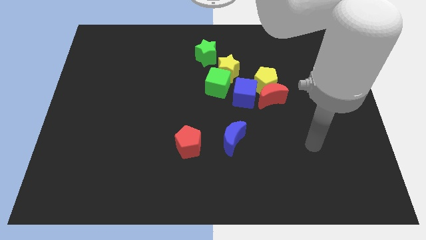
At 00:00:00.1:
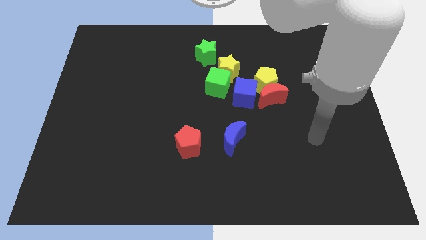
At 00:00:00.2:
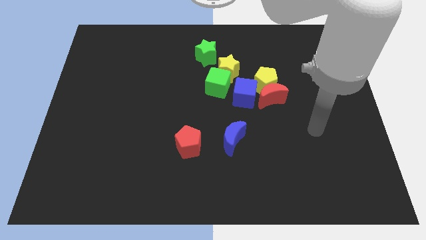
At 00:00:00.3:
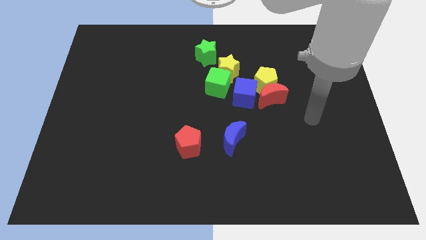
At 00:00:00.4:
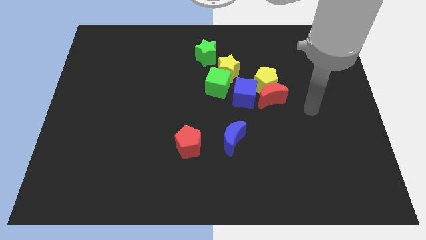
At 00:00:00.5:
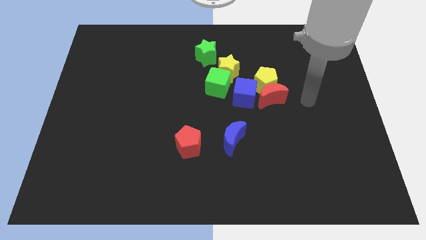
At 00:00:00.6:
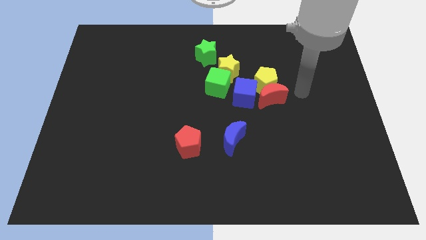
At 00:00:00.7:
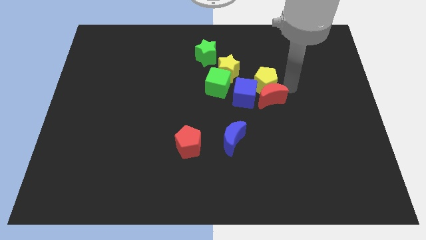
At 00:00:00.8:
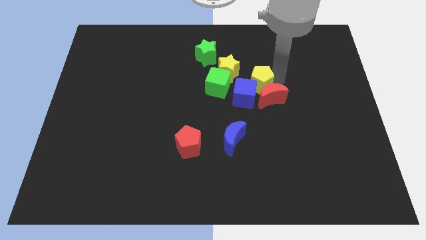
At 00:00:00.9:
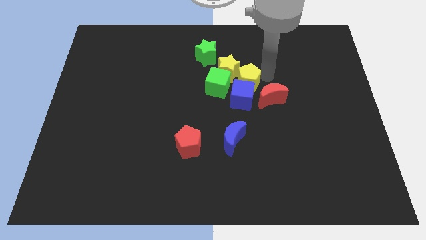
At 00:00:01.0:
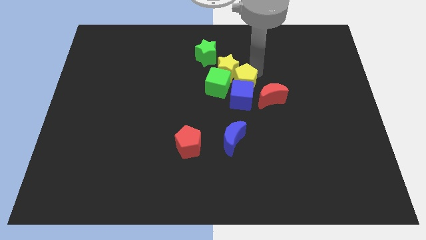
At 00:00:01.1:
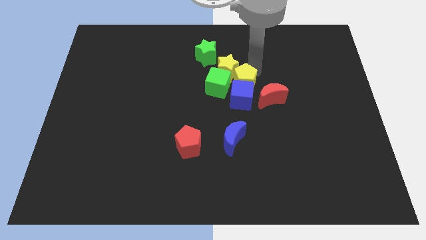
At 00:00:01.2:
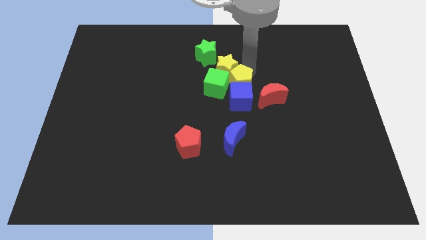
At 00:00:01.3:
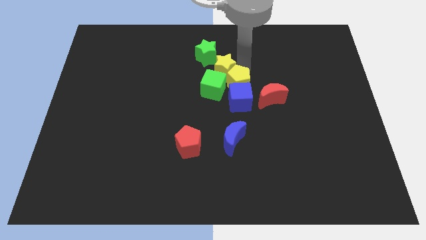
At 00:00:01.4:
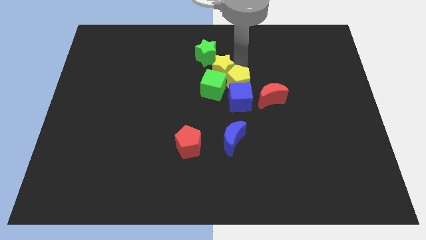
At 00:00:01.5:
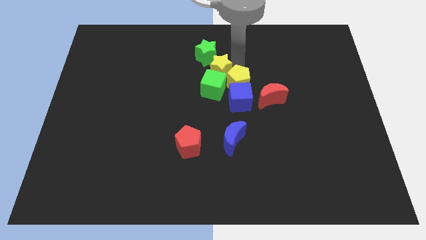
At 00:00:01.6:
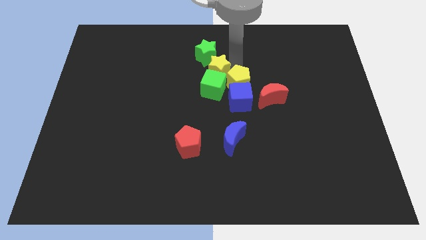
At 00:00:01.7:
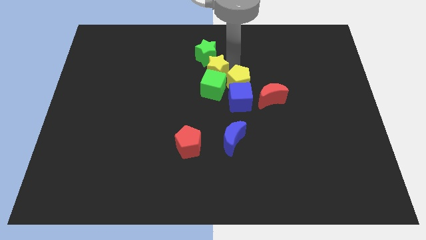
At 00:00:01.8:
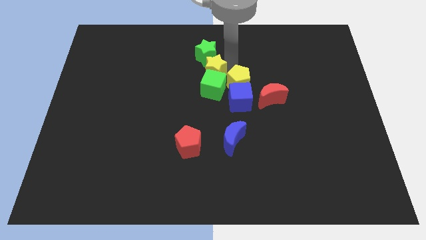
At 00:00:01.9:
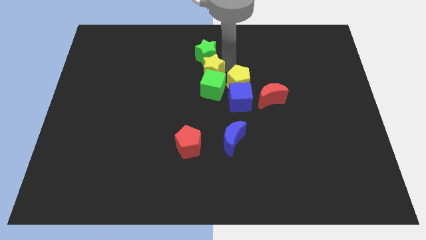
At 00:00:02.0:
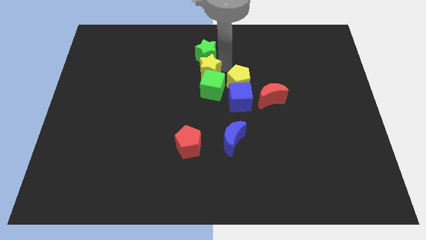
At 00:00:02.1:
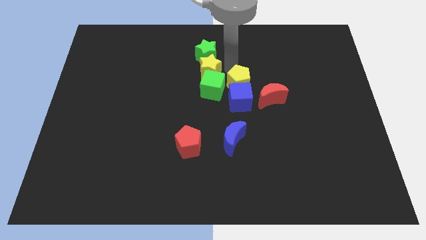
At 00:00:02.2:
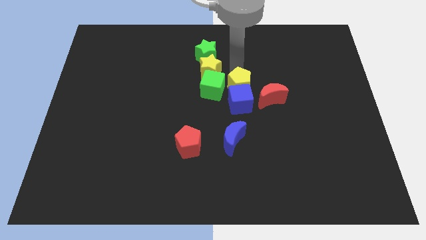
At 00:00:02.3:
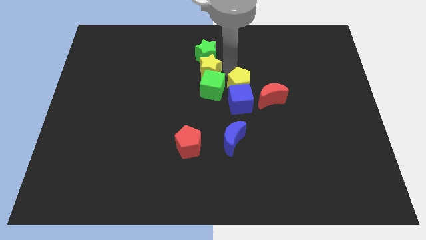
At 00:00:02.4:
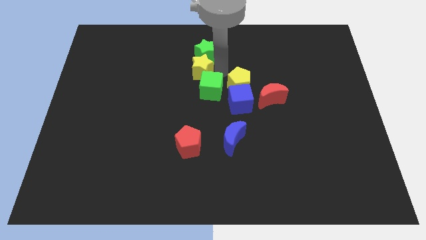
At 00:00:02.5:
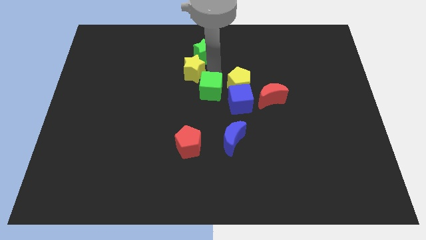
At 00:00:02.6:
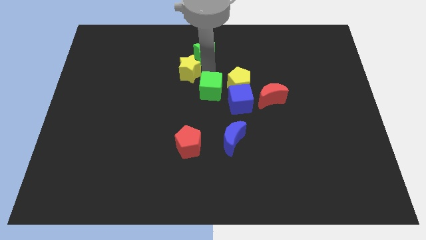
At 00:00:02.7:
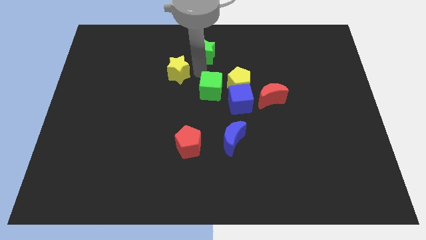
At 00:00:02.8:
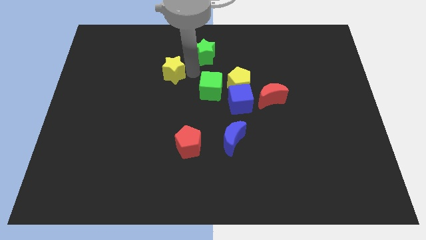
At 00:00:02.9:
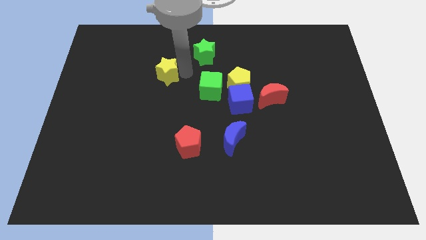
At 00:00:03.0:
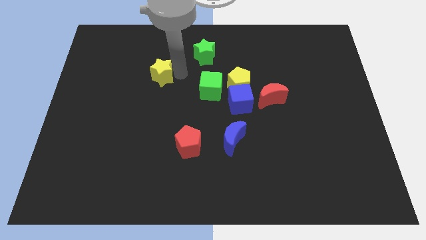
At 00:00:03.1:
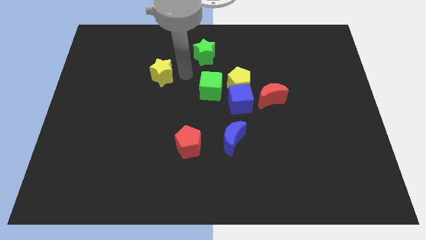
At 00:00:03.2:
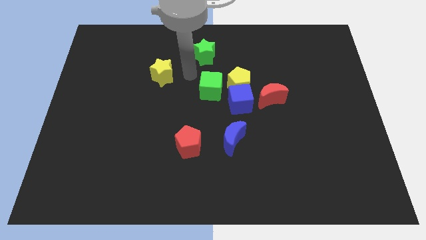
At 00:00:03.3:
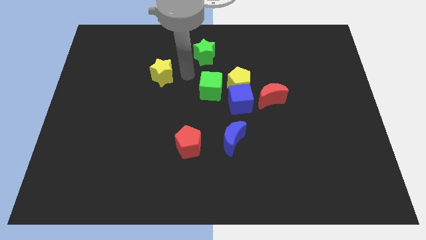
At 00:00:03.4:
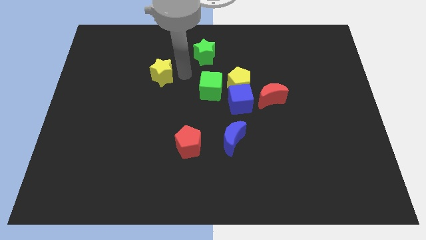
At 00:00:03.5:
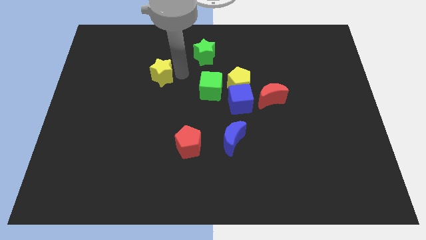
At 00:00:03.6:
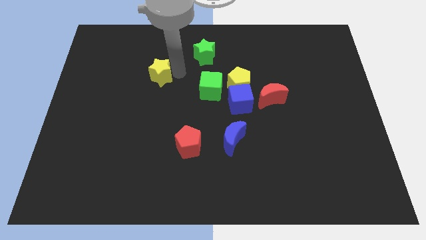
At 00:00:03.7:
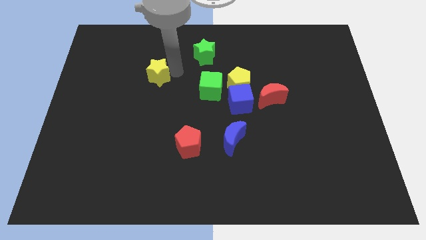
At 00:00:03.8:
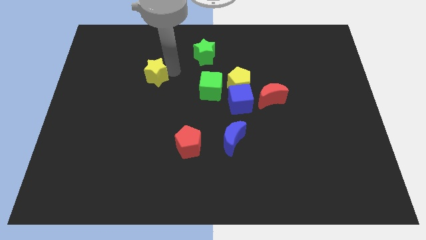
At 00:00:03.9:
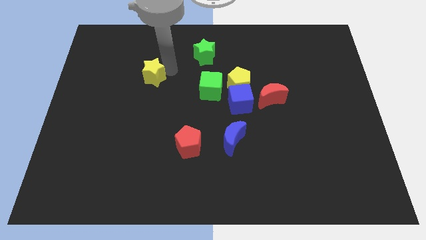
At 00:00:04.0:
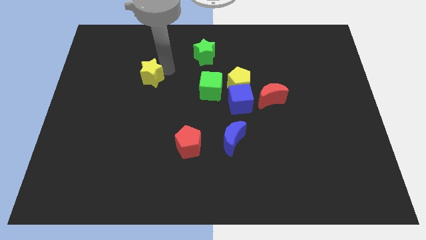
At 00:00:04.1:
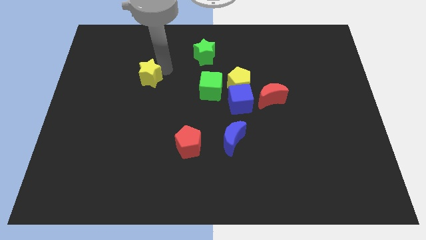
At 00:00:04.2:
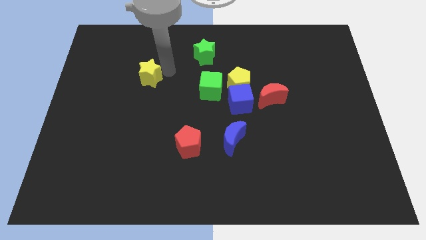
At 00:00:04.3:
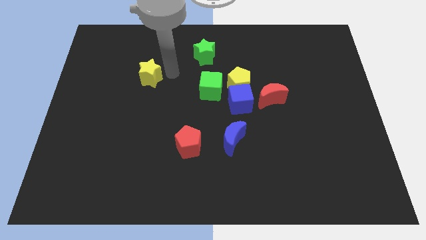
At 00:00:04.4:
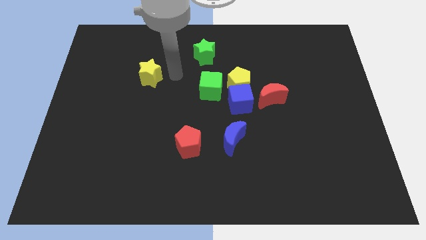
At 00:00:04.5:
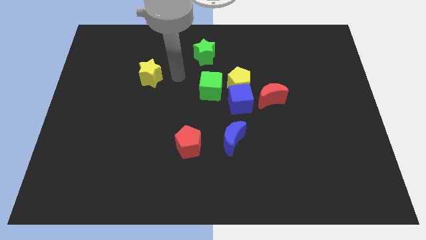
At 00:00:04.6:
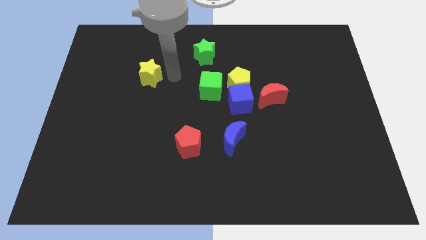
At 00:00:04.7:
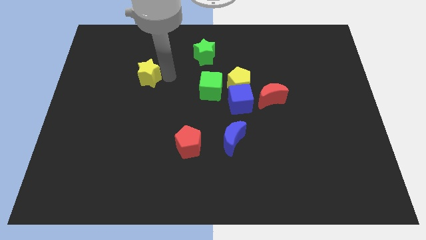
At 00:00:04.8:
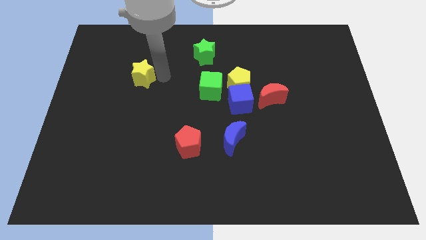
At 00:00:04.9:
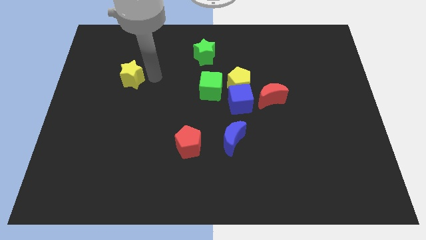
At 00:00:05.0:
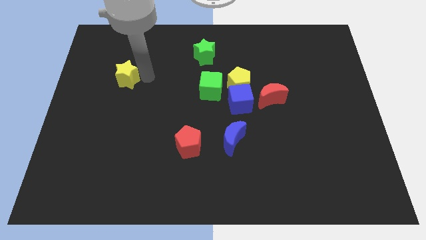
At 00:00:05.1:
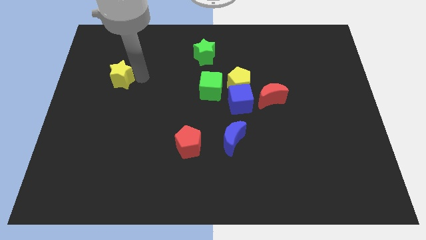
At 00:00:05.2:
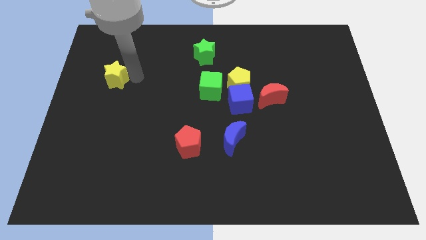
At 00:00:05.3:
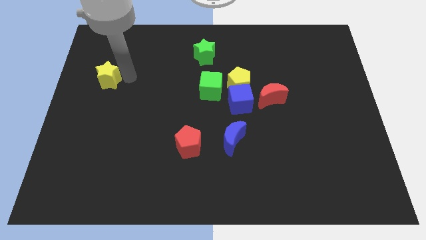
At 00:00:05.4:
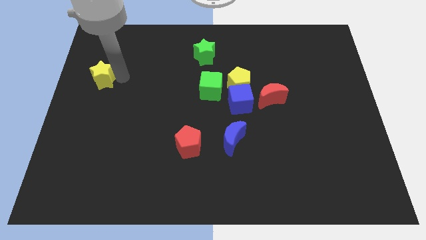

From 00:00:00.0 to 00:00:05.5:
put the yellow star to the left side

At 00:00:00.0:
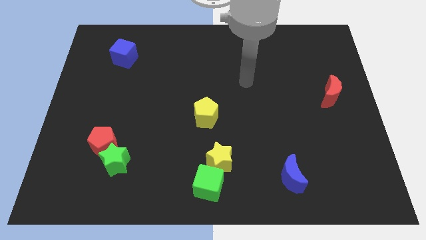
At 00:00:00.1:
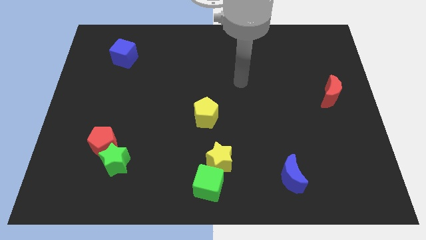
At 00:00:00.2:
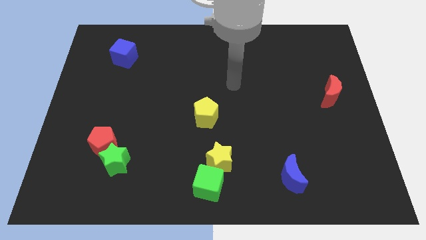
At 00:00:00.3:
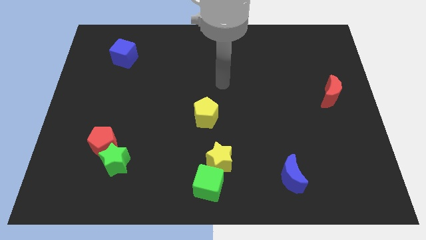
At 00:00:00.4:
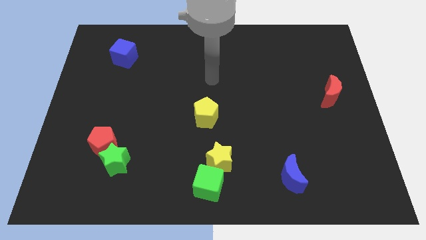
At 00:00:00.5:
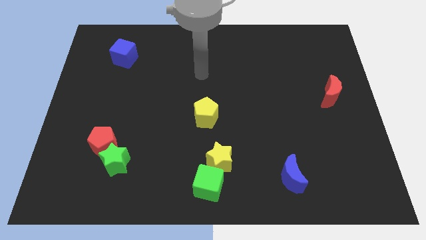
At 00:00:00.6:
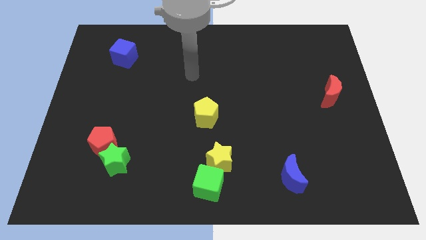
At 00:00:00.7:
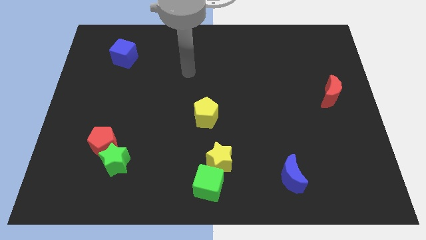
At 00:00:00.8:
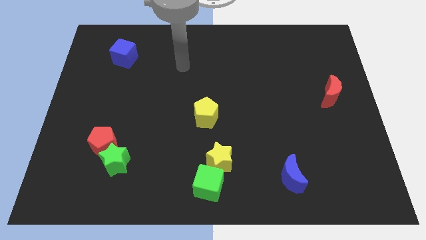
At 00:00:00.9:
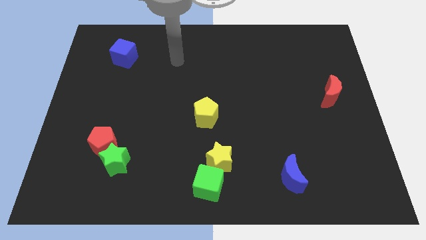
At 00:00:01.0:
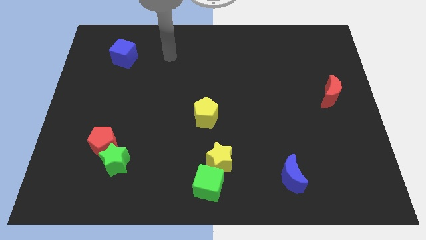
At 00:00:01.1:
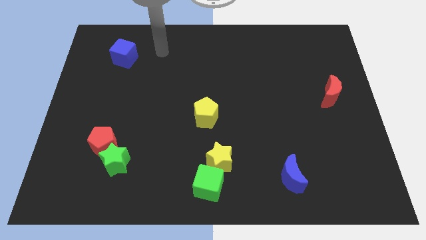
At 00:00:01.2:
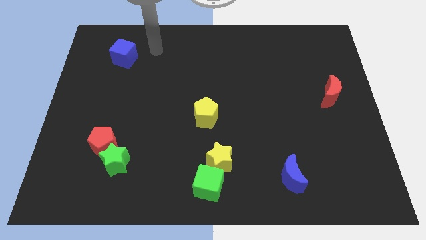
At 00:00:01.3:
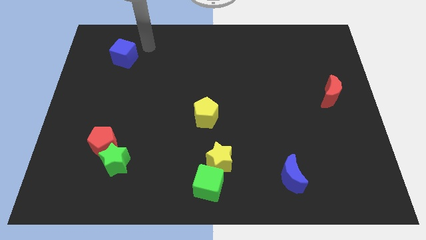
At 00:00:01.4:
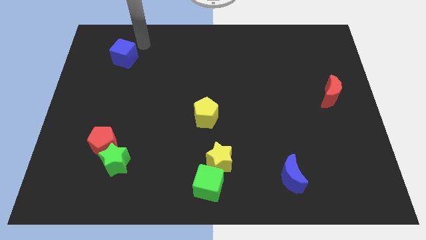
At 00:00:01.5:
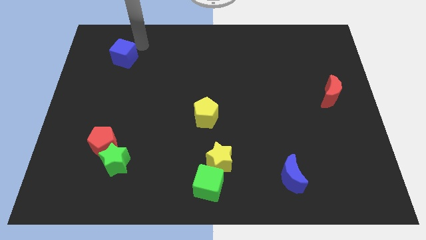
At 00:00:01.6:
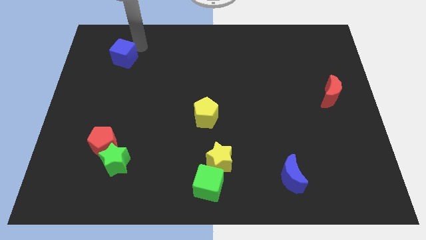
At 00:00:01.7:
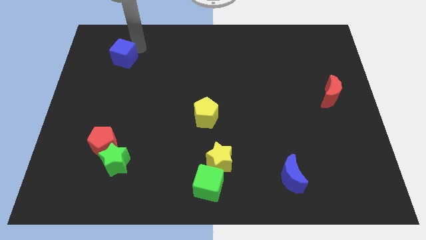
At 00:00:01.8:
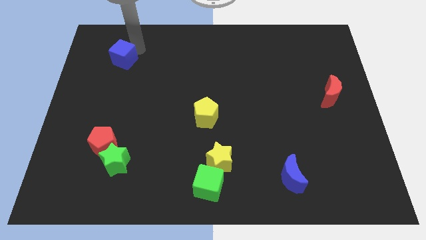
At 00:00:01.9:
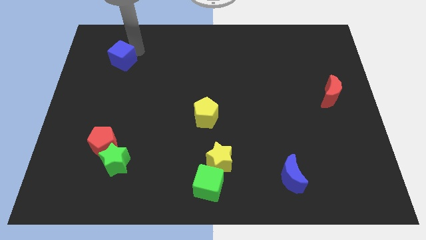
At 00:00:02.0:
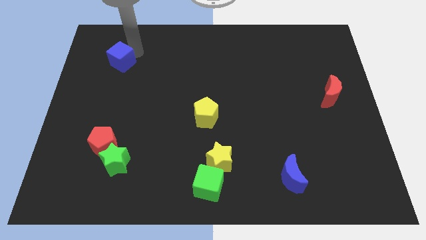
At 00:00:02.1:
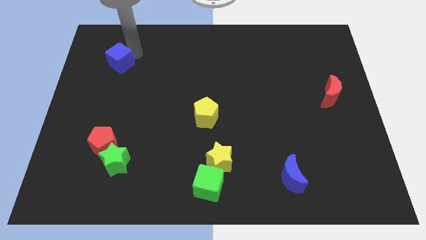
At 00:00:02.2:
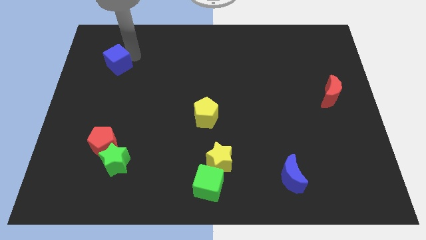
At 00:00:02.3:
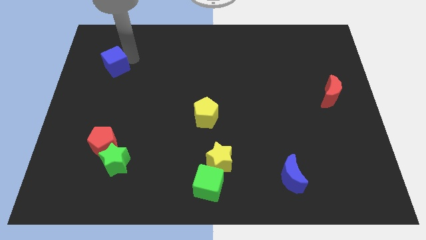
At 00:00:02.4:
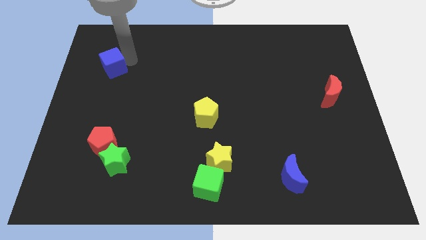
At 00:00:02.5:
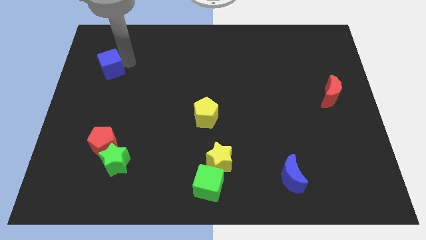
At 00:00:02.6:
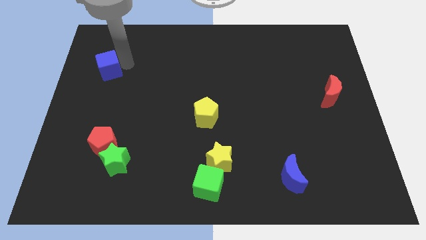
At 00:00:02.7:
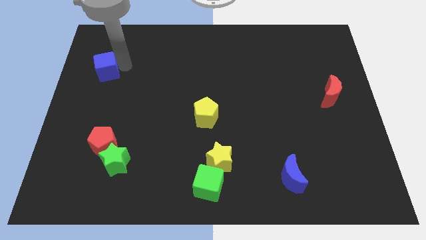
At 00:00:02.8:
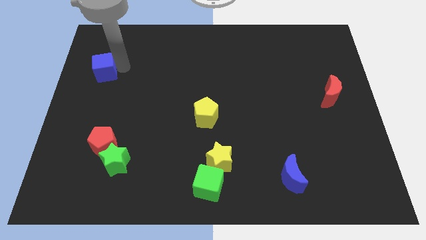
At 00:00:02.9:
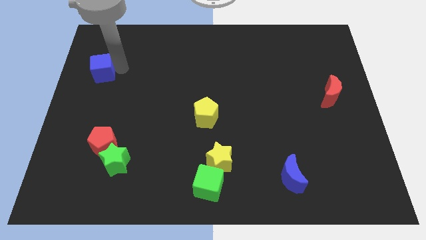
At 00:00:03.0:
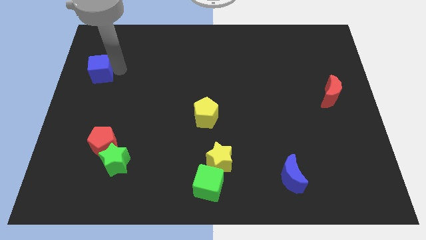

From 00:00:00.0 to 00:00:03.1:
push the blue cube to the left side of the board
